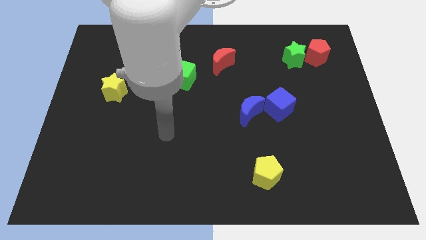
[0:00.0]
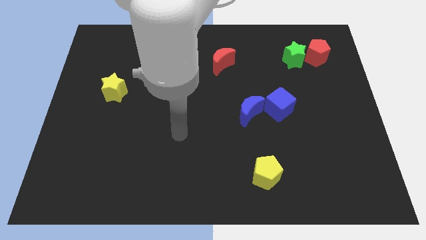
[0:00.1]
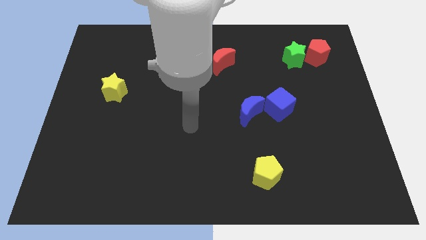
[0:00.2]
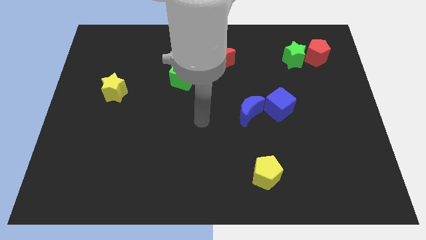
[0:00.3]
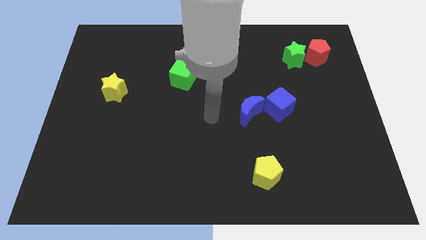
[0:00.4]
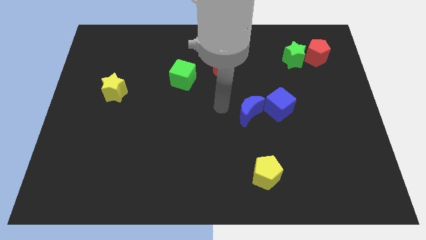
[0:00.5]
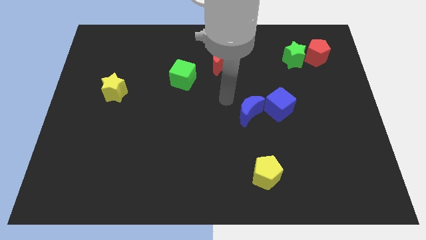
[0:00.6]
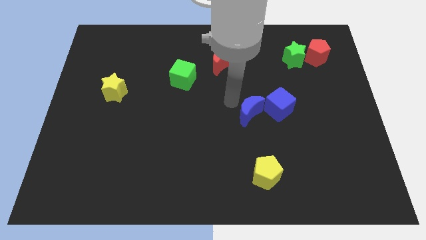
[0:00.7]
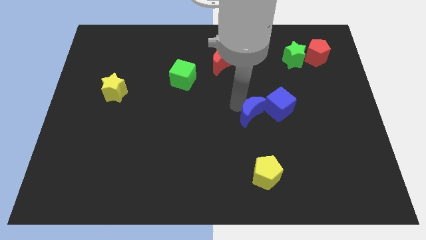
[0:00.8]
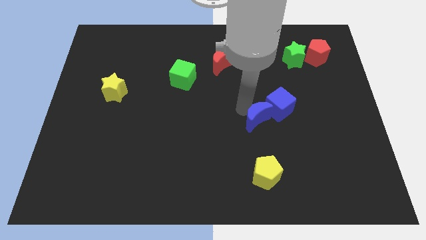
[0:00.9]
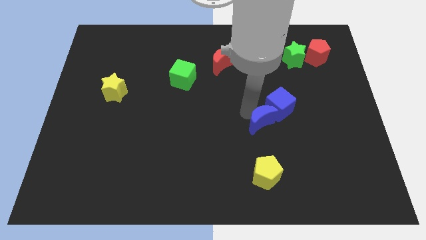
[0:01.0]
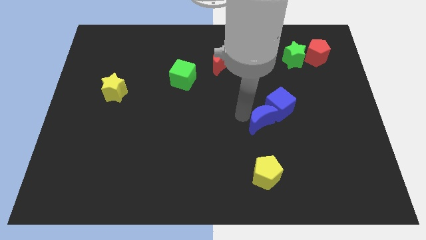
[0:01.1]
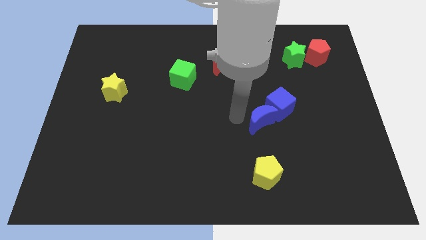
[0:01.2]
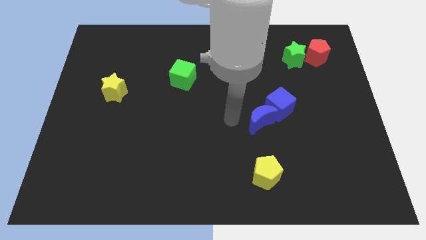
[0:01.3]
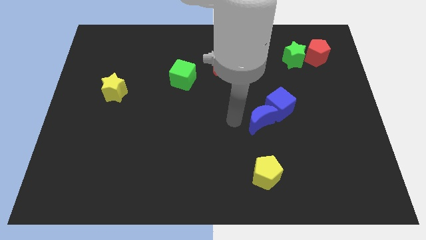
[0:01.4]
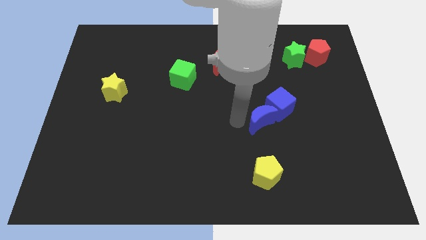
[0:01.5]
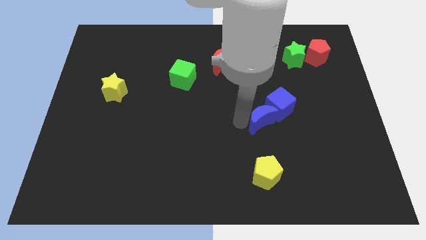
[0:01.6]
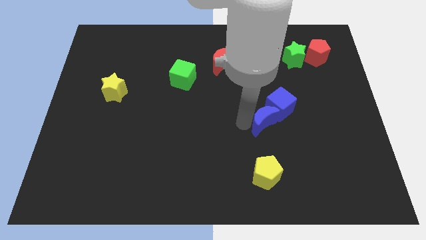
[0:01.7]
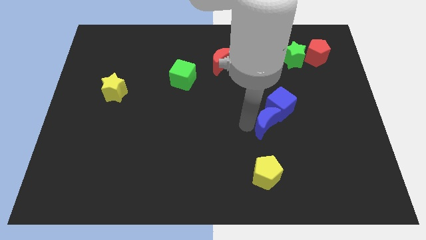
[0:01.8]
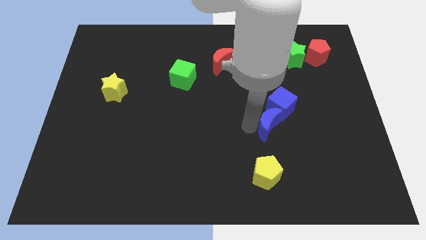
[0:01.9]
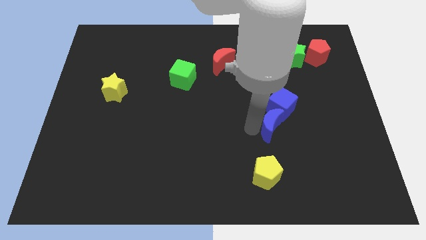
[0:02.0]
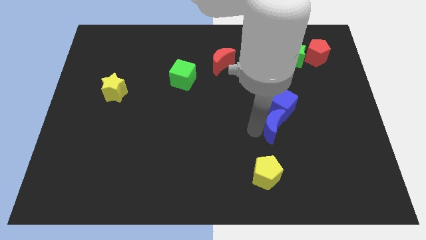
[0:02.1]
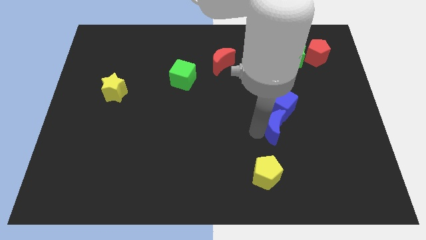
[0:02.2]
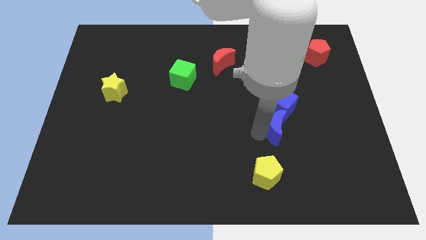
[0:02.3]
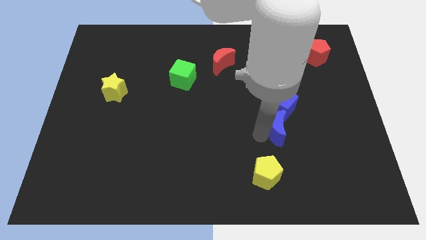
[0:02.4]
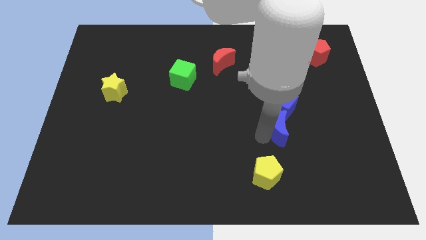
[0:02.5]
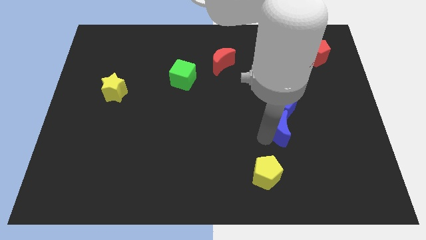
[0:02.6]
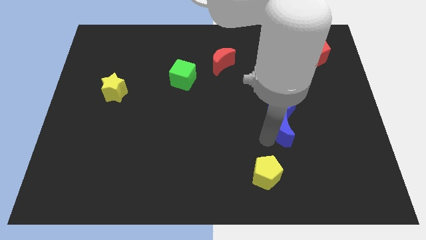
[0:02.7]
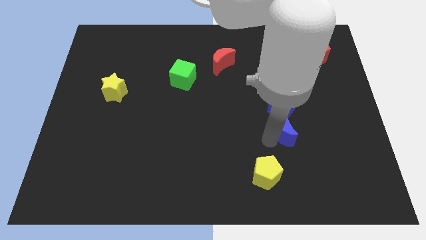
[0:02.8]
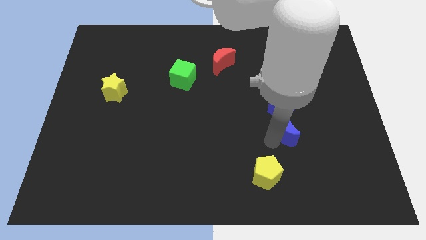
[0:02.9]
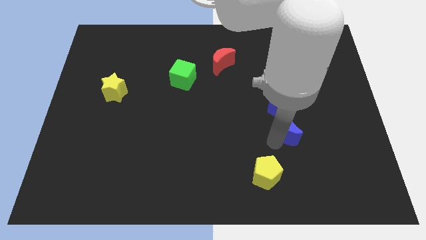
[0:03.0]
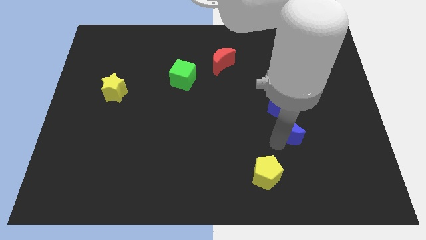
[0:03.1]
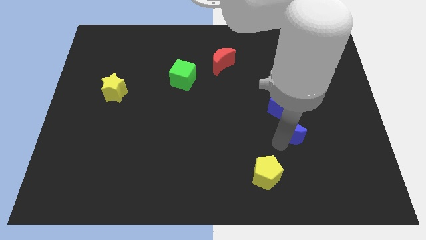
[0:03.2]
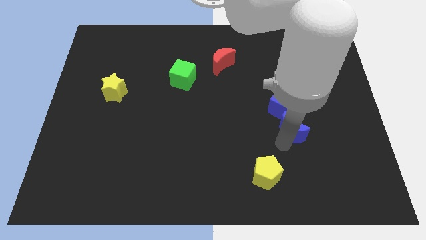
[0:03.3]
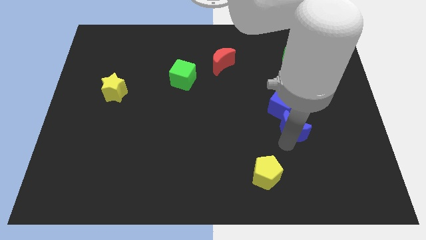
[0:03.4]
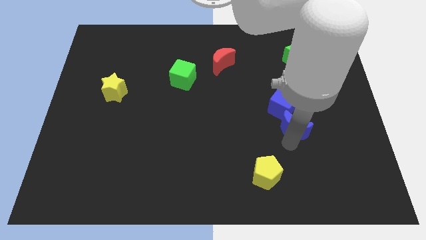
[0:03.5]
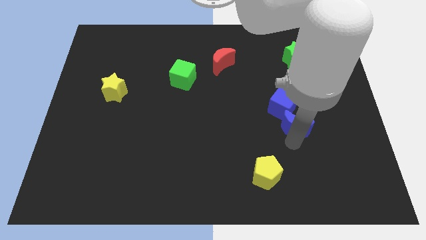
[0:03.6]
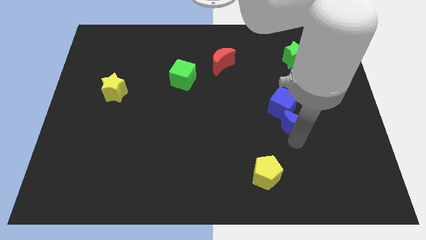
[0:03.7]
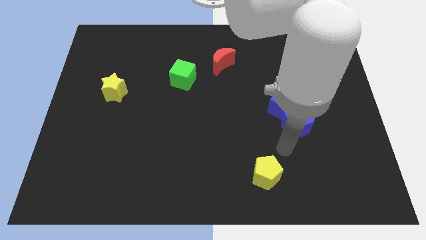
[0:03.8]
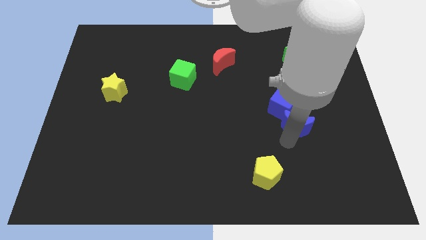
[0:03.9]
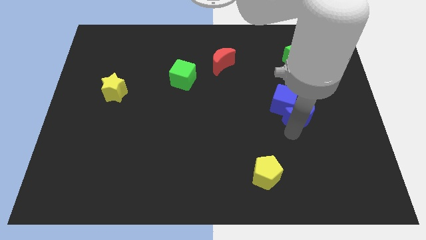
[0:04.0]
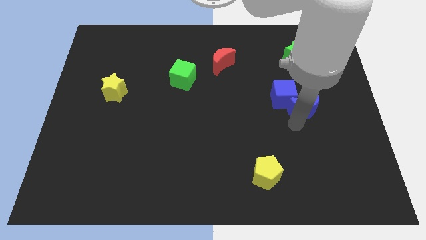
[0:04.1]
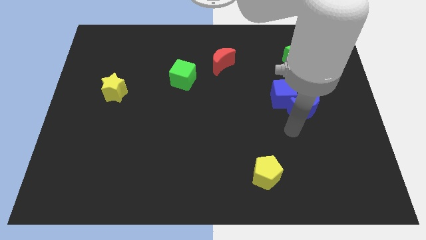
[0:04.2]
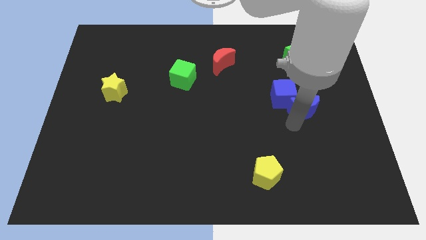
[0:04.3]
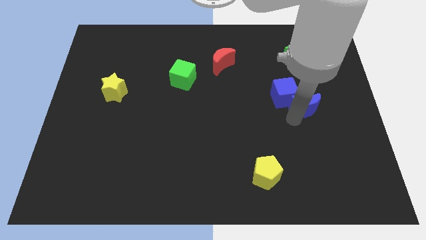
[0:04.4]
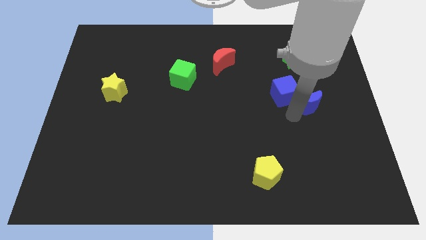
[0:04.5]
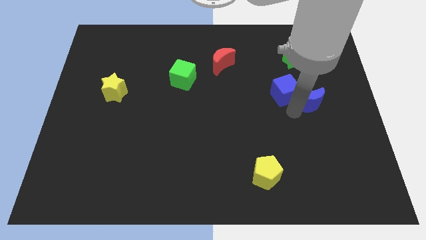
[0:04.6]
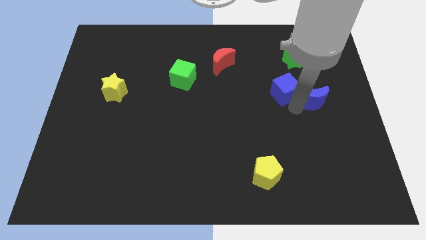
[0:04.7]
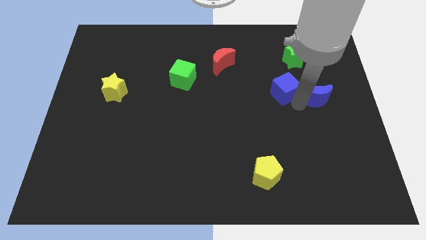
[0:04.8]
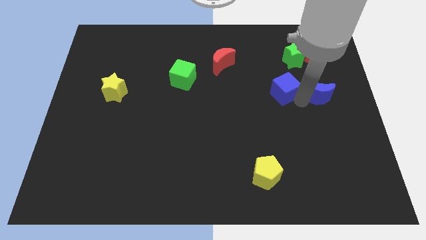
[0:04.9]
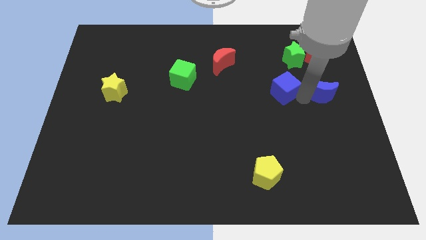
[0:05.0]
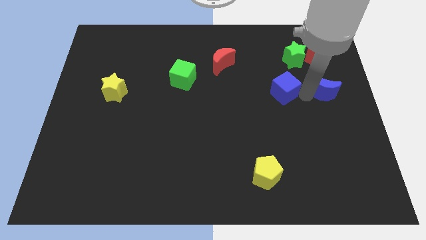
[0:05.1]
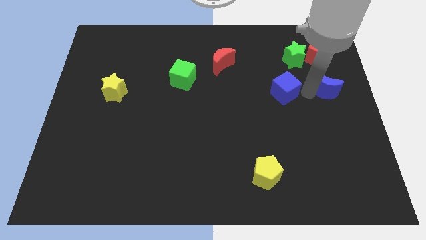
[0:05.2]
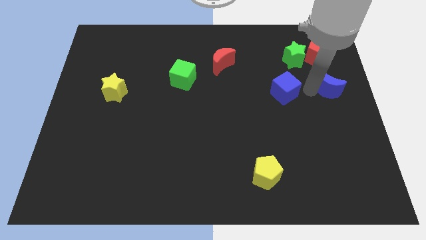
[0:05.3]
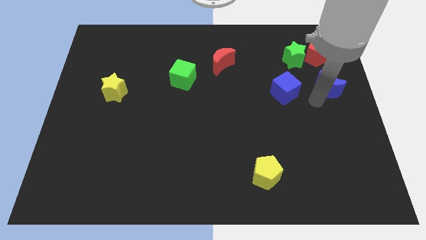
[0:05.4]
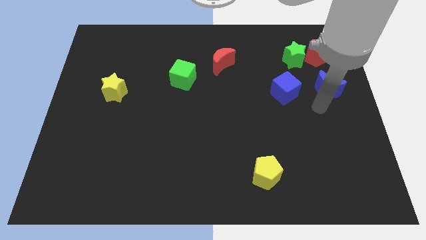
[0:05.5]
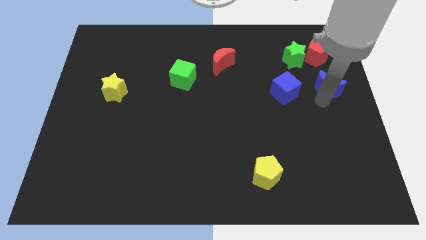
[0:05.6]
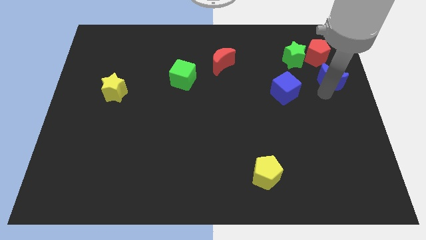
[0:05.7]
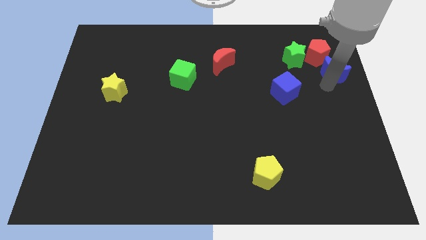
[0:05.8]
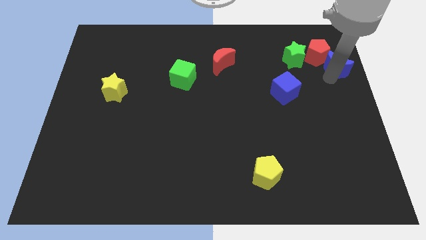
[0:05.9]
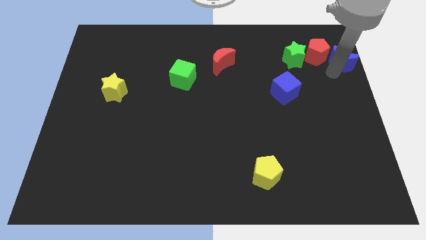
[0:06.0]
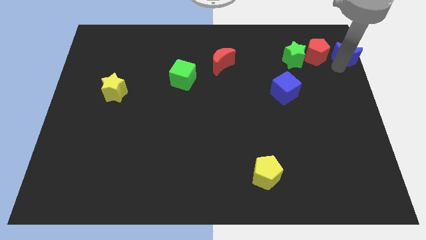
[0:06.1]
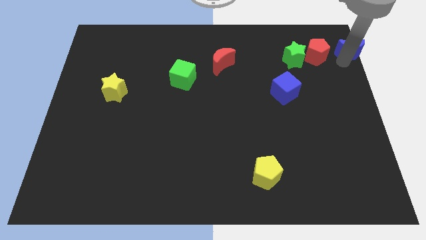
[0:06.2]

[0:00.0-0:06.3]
move the blue moon to the top right of the board

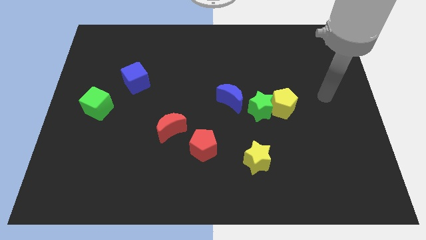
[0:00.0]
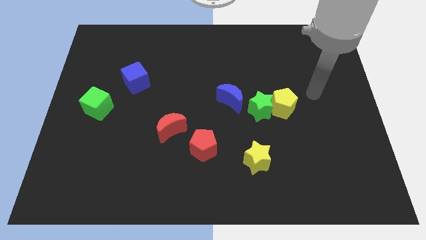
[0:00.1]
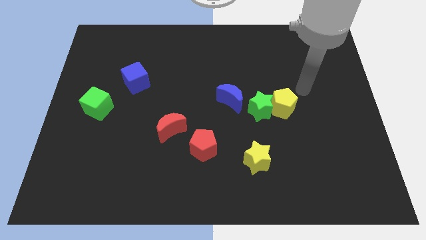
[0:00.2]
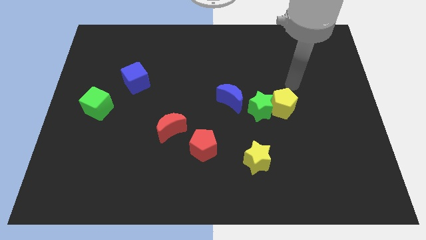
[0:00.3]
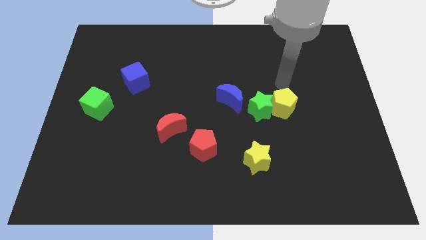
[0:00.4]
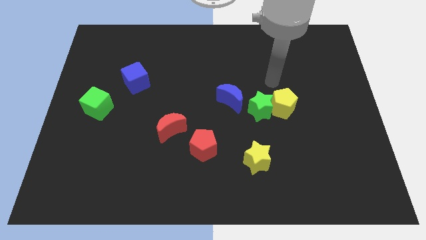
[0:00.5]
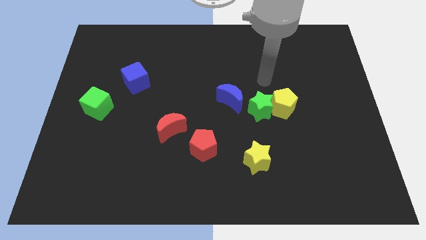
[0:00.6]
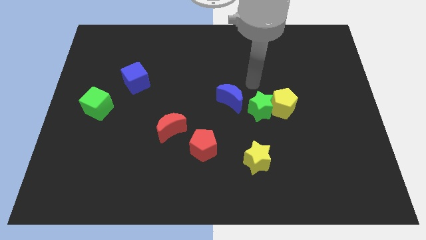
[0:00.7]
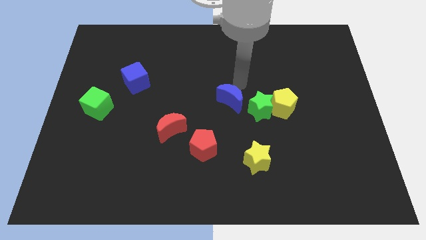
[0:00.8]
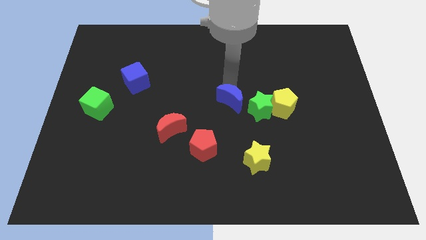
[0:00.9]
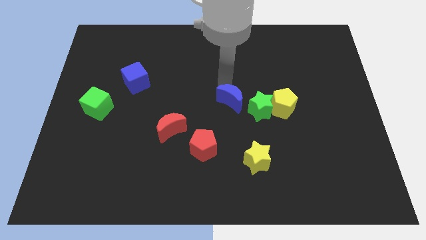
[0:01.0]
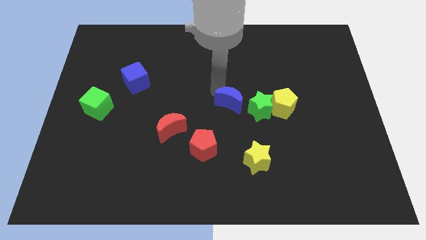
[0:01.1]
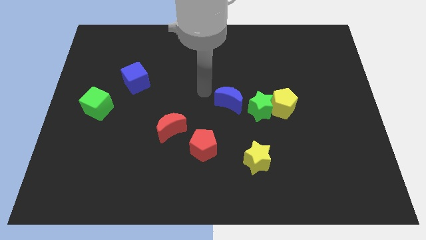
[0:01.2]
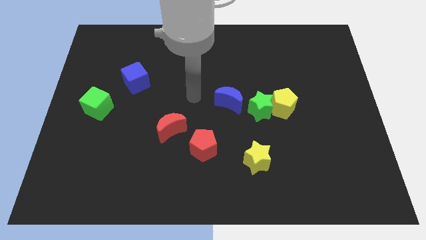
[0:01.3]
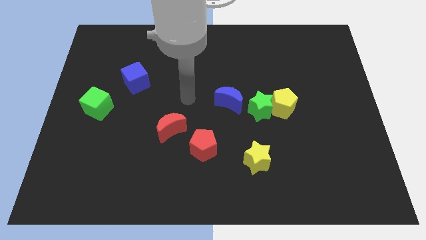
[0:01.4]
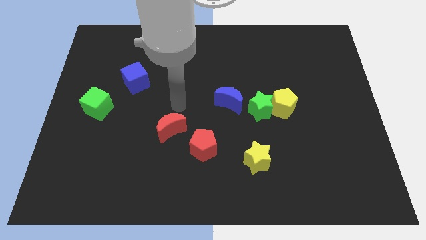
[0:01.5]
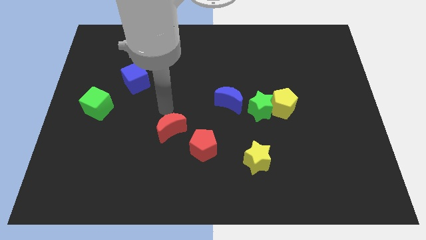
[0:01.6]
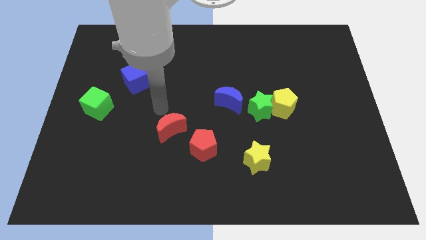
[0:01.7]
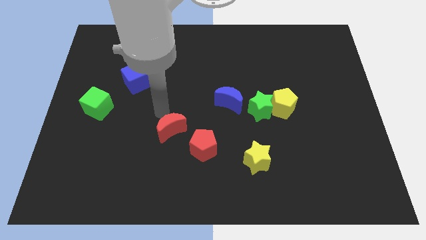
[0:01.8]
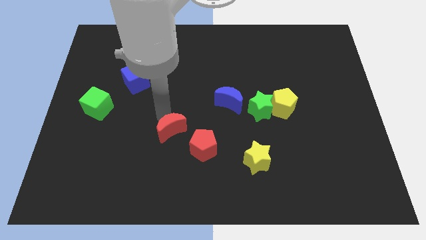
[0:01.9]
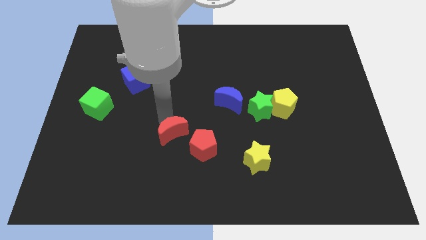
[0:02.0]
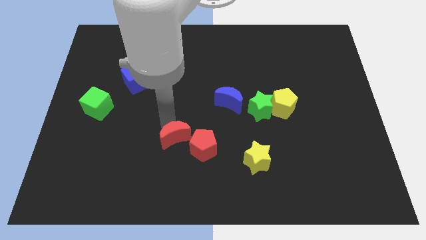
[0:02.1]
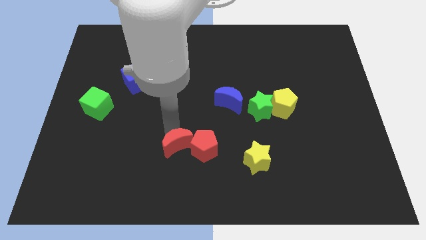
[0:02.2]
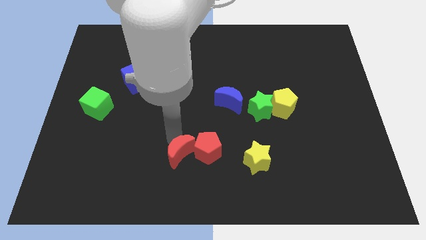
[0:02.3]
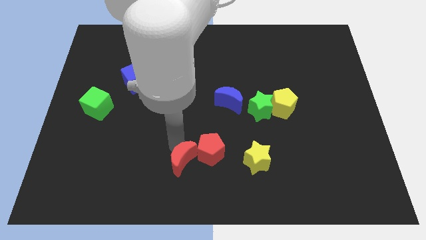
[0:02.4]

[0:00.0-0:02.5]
put the red moon to the bottom
